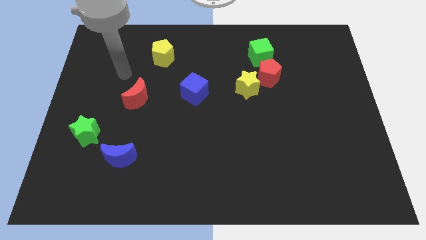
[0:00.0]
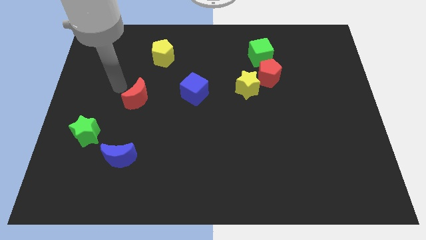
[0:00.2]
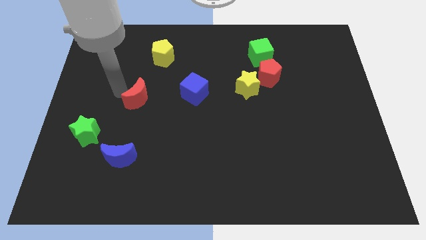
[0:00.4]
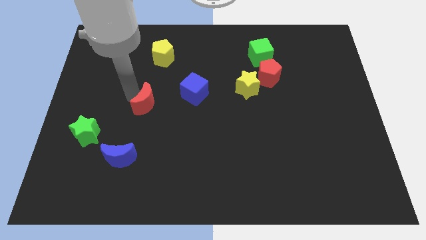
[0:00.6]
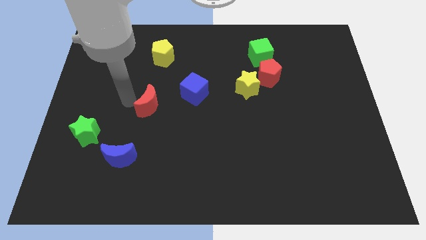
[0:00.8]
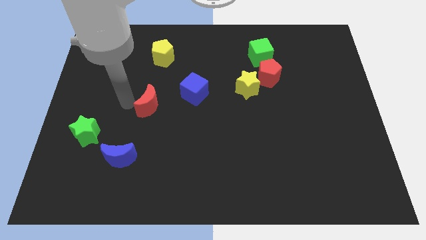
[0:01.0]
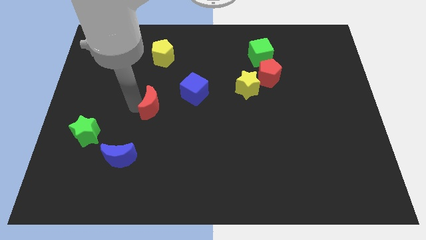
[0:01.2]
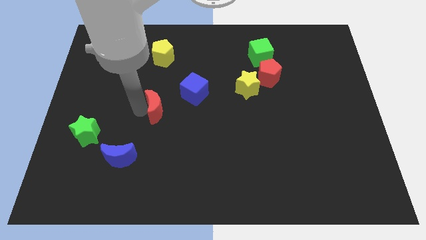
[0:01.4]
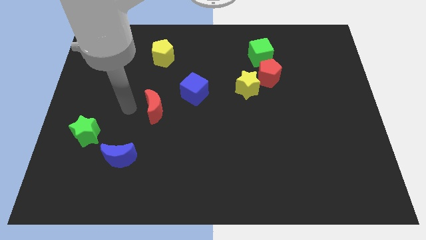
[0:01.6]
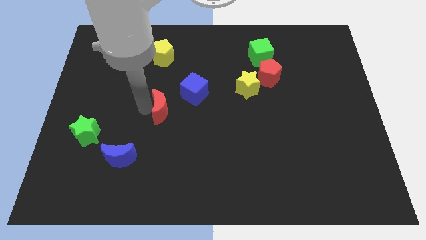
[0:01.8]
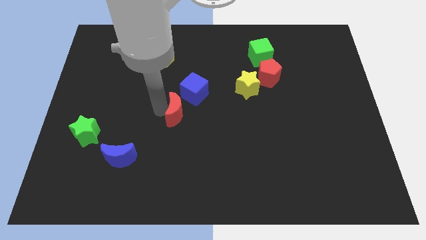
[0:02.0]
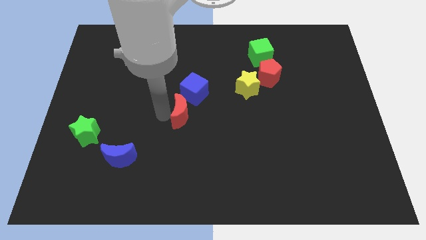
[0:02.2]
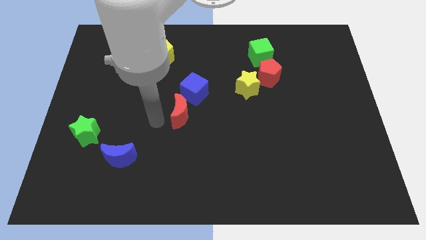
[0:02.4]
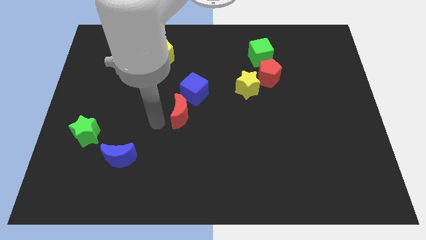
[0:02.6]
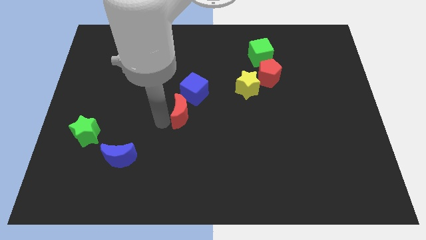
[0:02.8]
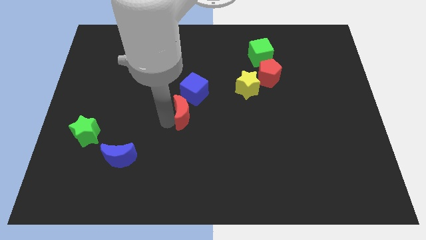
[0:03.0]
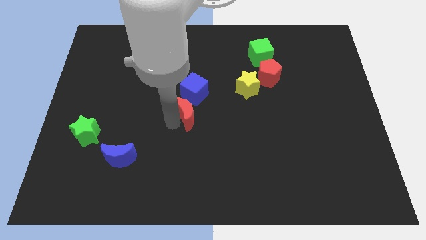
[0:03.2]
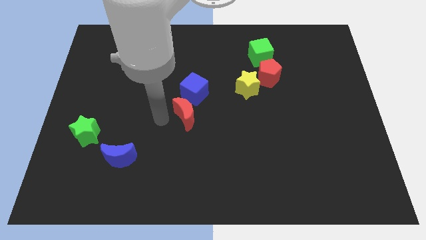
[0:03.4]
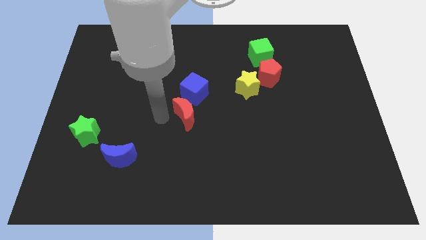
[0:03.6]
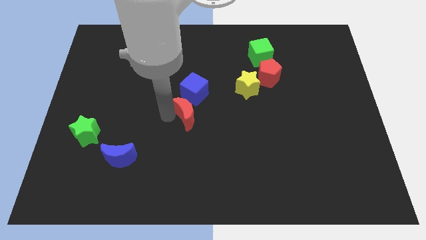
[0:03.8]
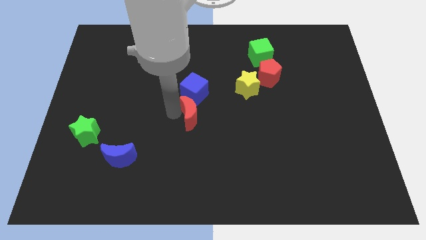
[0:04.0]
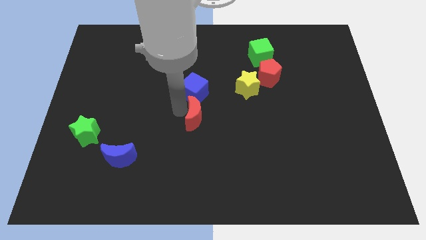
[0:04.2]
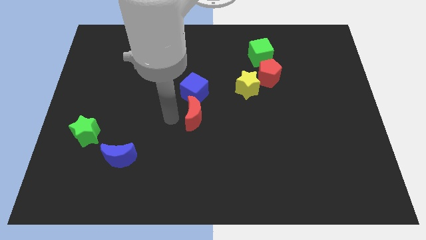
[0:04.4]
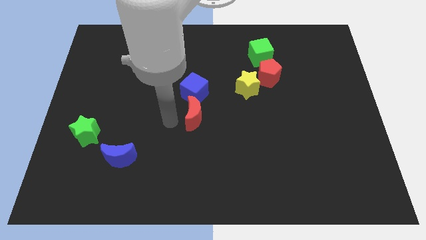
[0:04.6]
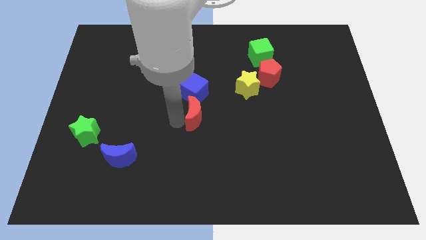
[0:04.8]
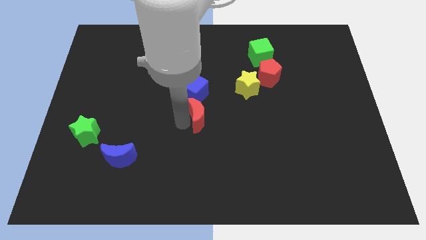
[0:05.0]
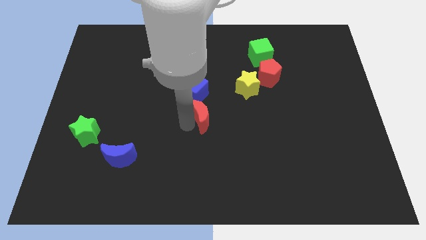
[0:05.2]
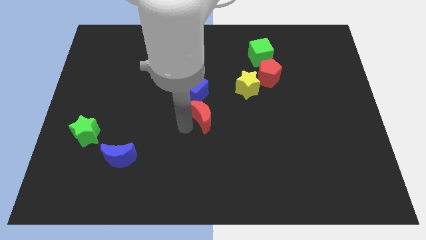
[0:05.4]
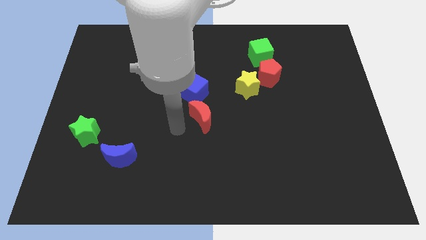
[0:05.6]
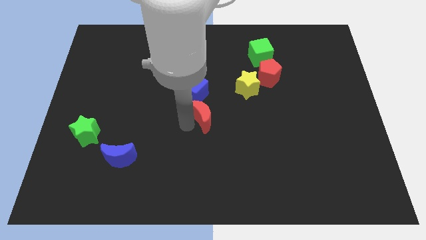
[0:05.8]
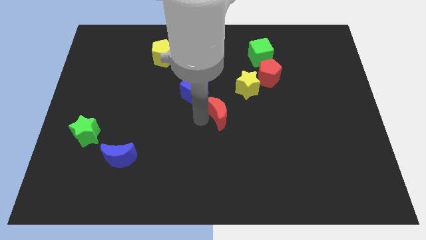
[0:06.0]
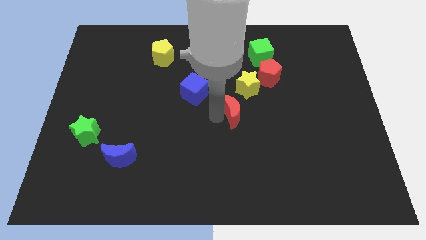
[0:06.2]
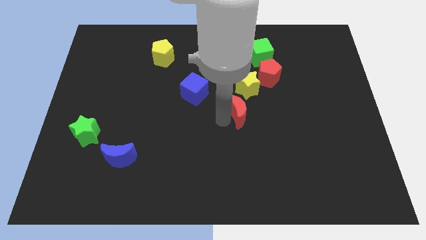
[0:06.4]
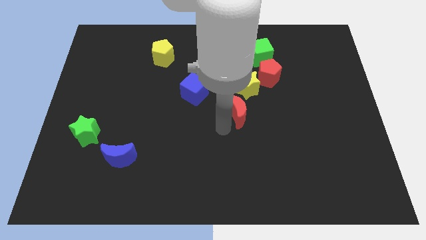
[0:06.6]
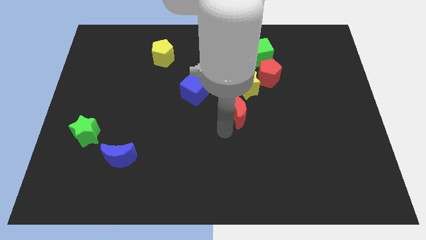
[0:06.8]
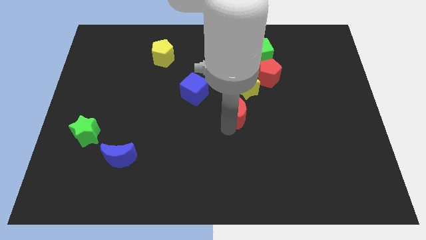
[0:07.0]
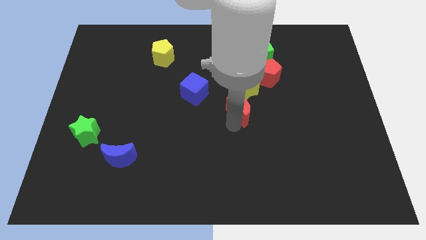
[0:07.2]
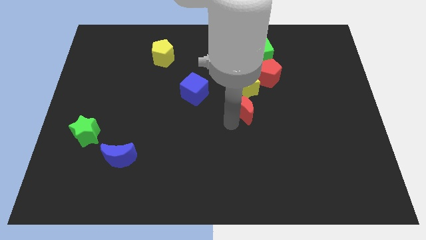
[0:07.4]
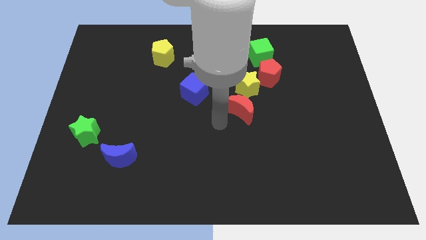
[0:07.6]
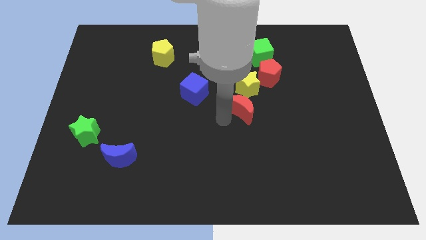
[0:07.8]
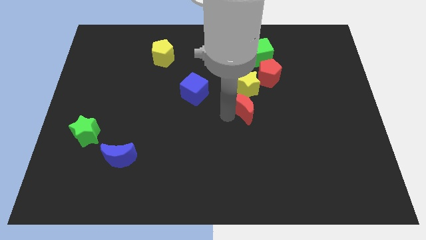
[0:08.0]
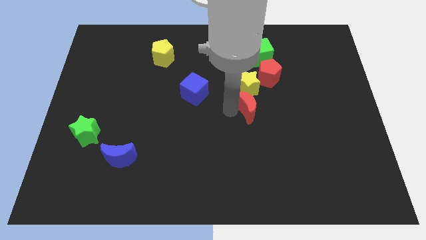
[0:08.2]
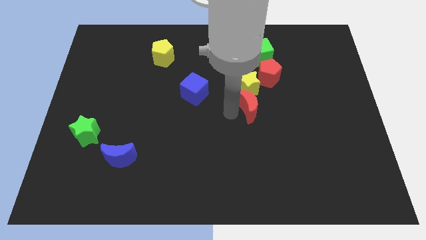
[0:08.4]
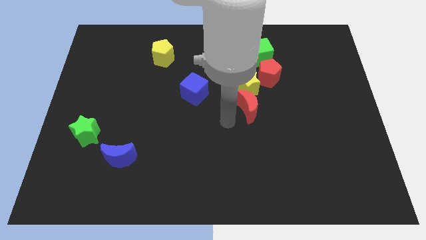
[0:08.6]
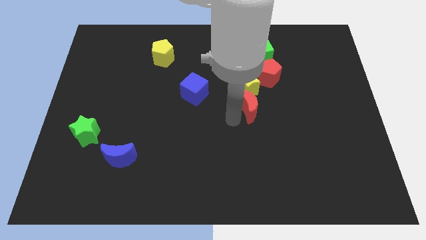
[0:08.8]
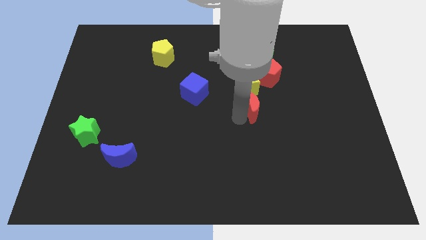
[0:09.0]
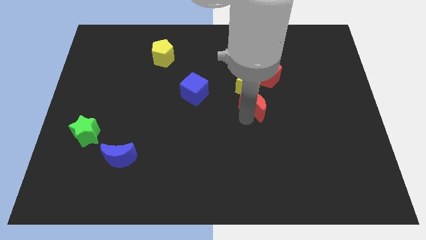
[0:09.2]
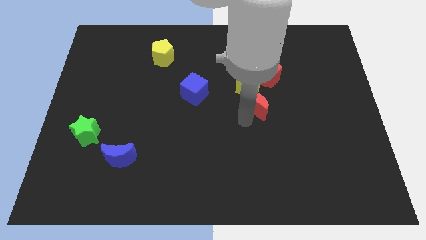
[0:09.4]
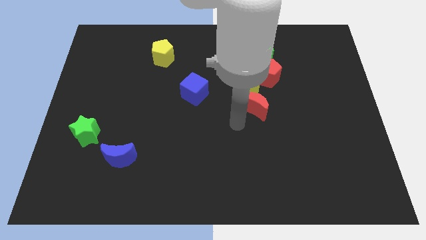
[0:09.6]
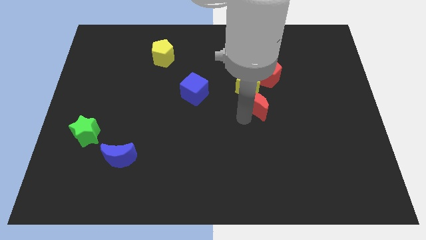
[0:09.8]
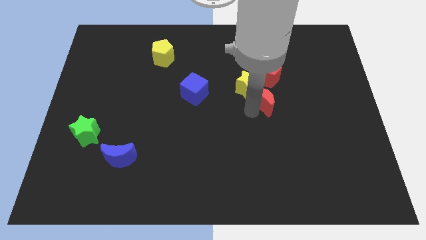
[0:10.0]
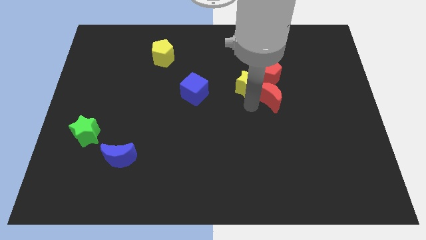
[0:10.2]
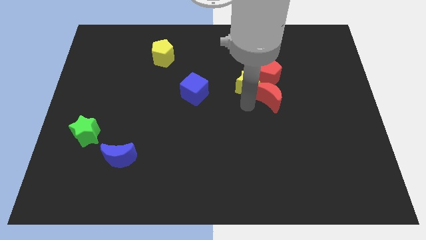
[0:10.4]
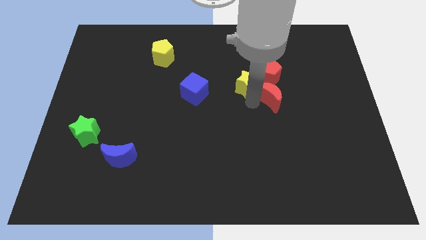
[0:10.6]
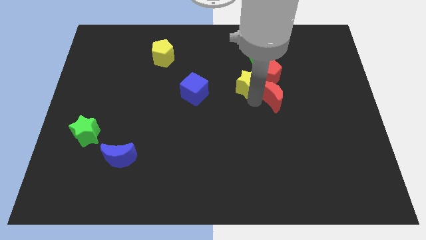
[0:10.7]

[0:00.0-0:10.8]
put the red moon to the bottom right of the red pentagon

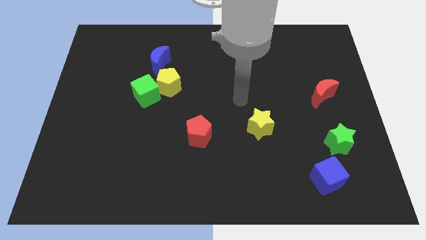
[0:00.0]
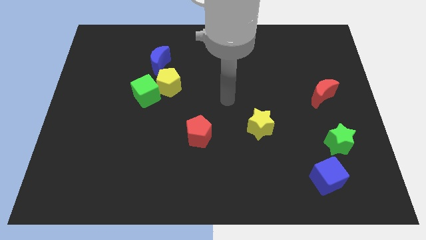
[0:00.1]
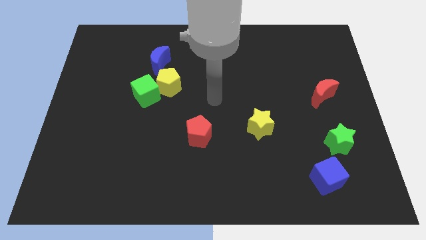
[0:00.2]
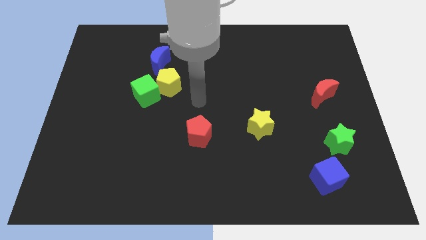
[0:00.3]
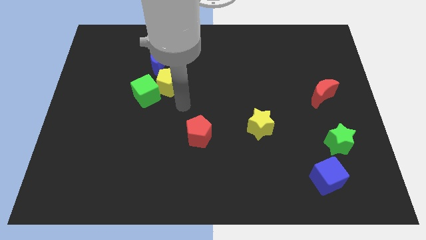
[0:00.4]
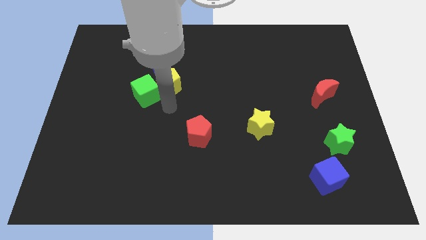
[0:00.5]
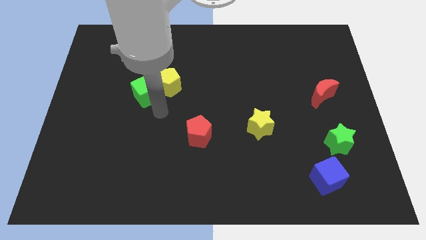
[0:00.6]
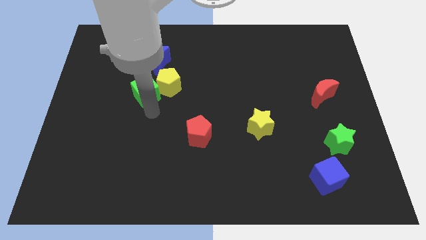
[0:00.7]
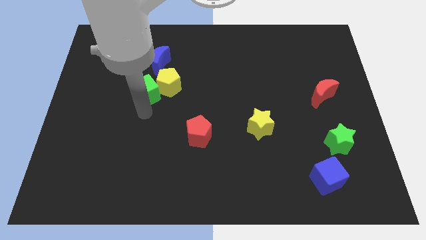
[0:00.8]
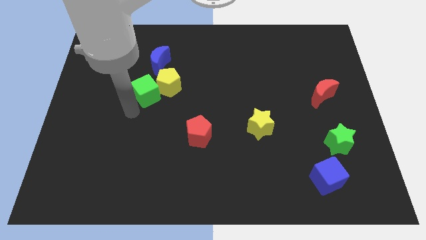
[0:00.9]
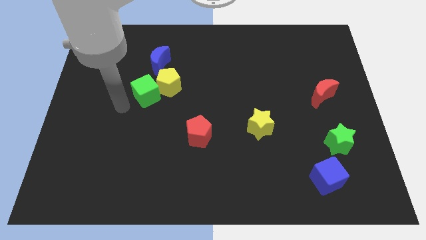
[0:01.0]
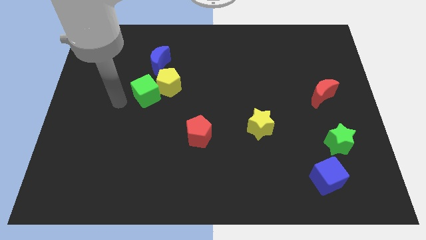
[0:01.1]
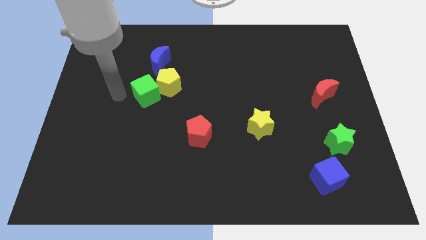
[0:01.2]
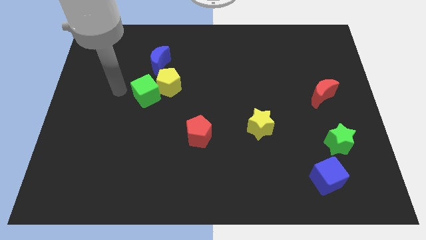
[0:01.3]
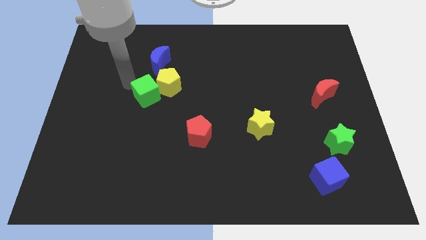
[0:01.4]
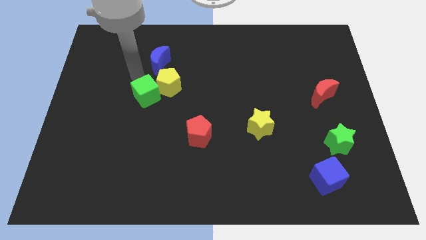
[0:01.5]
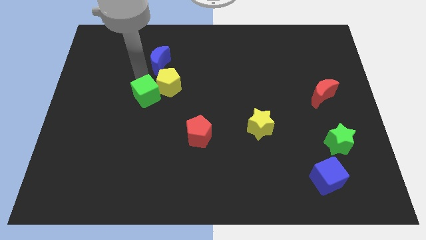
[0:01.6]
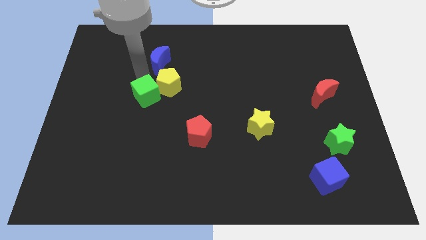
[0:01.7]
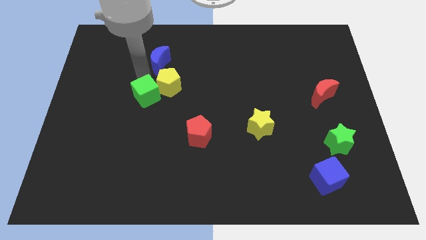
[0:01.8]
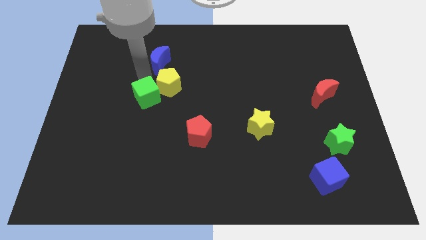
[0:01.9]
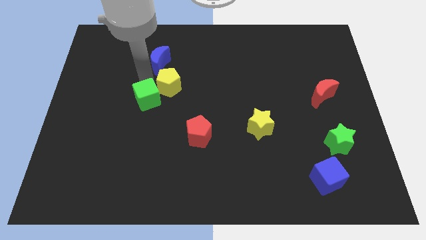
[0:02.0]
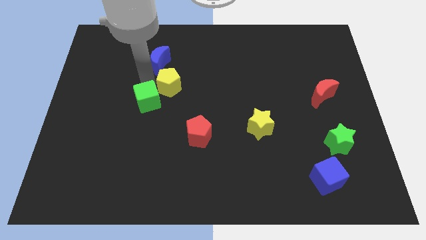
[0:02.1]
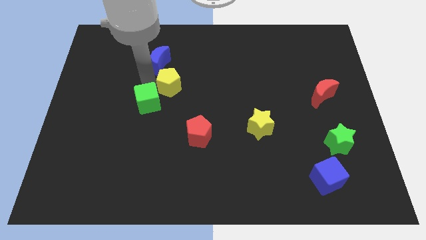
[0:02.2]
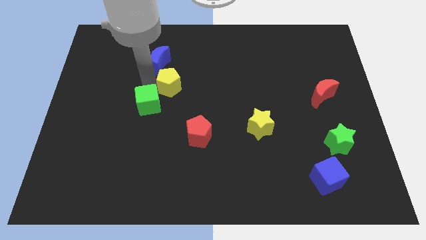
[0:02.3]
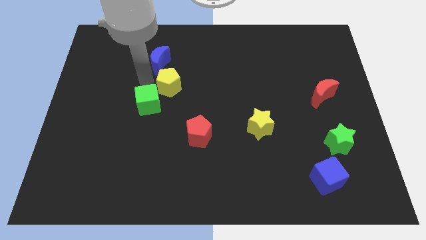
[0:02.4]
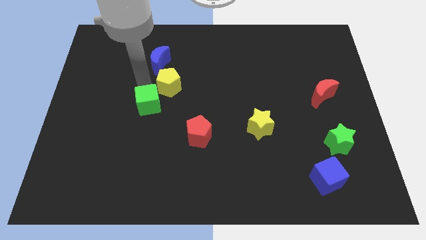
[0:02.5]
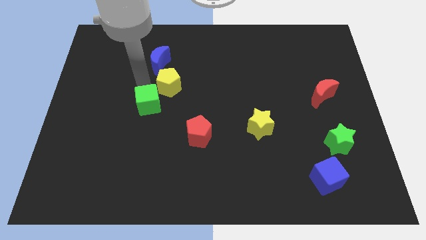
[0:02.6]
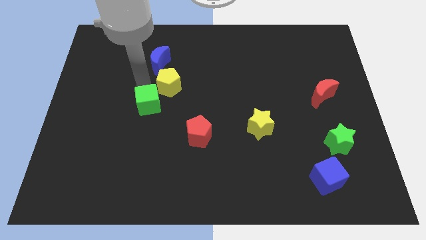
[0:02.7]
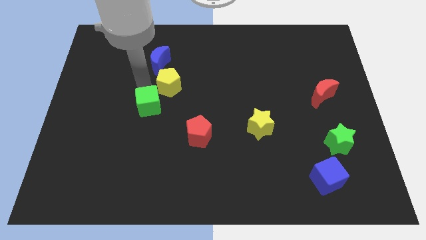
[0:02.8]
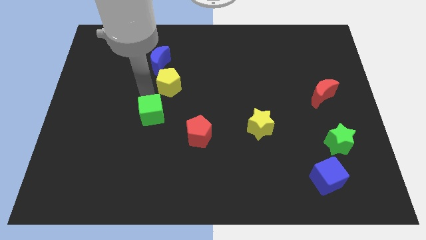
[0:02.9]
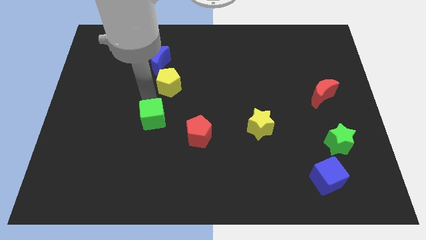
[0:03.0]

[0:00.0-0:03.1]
push the green cube to the left side of the red pentagon
